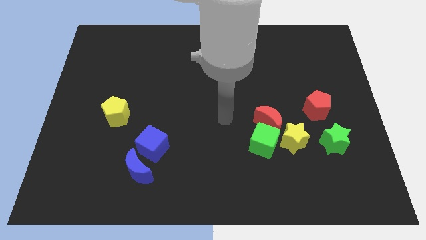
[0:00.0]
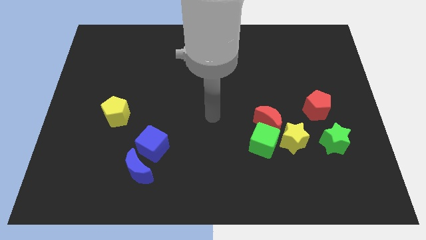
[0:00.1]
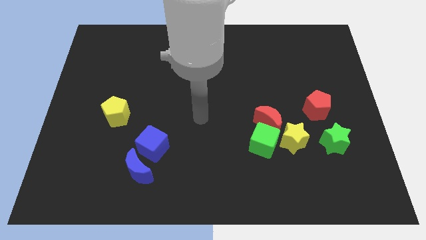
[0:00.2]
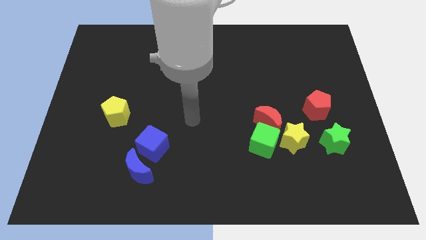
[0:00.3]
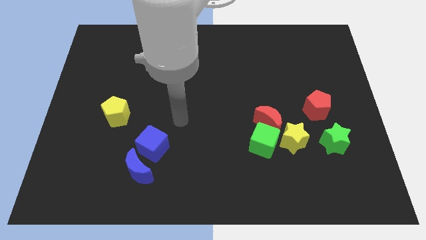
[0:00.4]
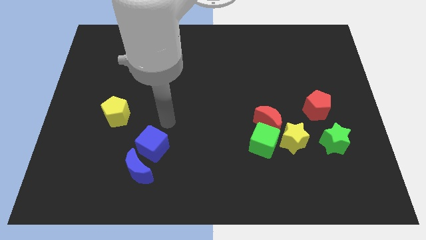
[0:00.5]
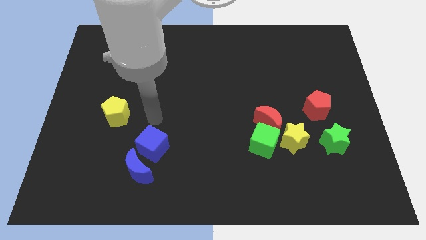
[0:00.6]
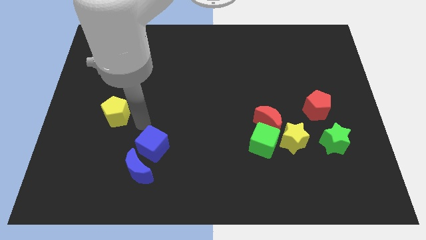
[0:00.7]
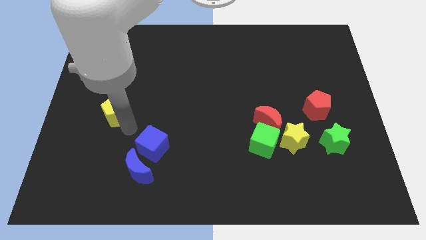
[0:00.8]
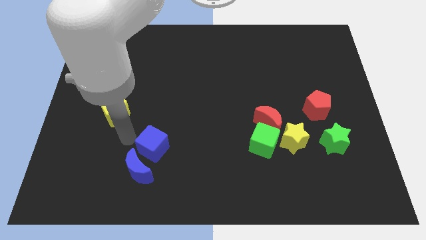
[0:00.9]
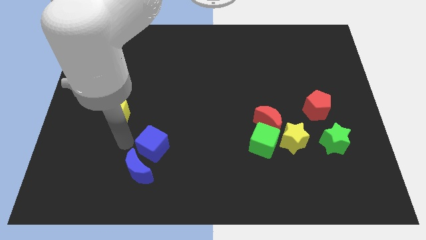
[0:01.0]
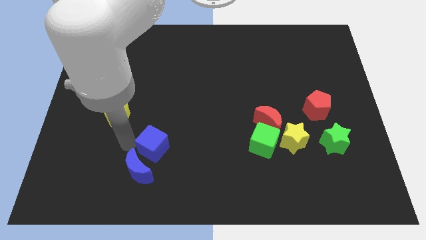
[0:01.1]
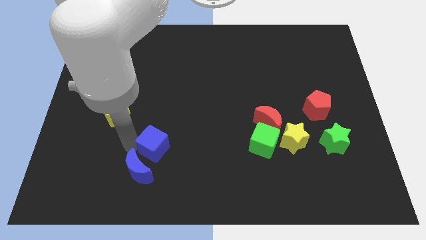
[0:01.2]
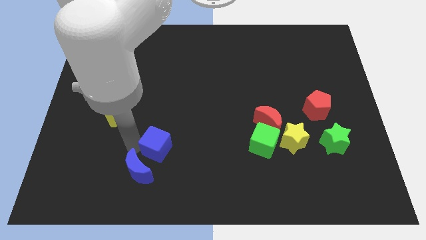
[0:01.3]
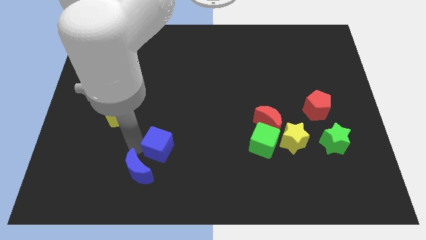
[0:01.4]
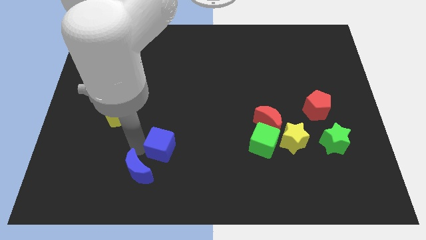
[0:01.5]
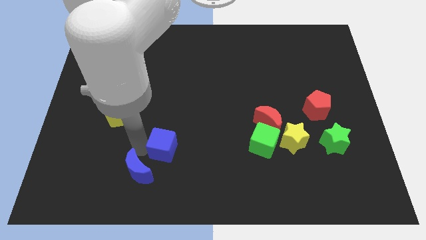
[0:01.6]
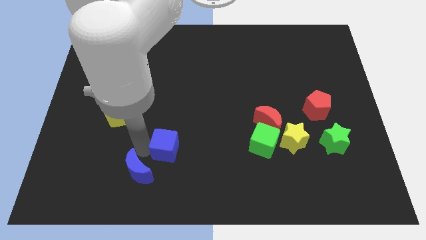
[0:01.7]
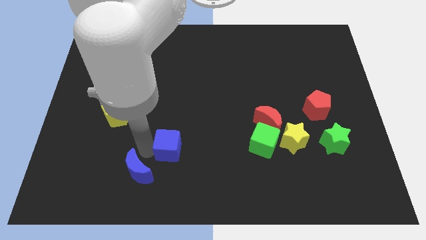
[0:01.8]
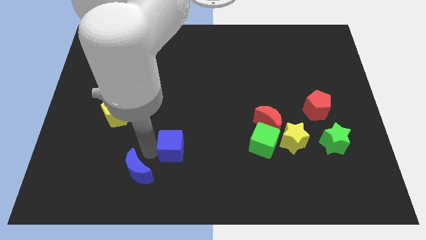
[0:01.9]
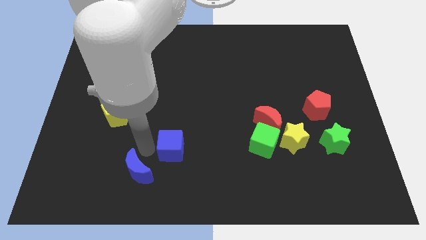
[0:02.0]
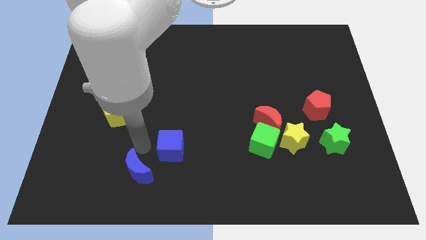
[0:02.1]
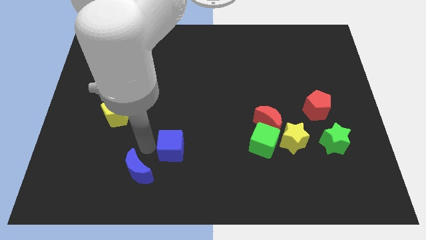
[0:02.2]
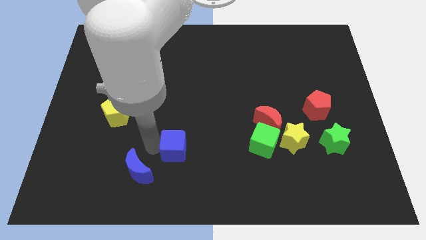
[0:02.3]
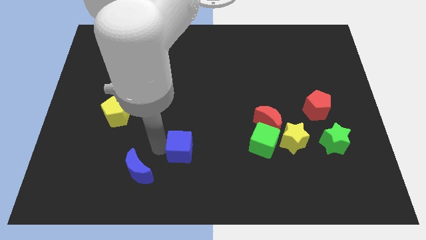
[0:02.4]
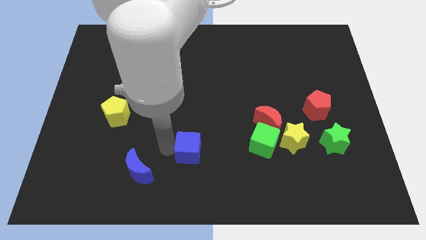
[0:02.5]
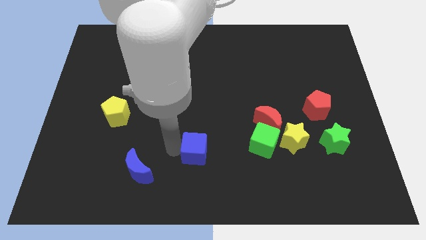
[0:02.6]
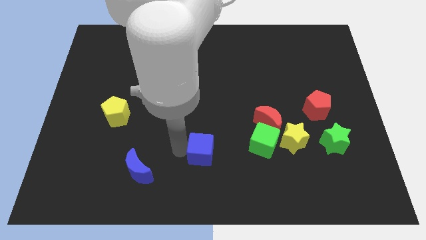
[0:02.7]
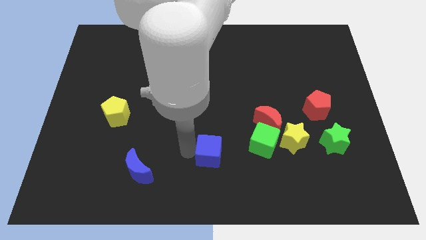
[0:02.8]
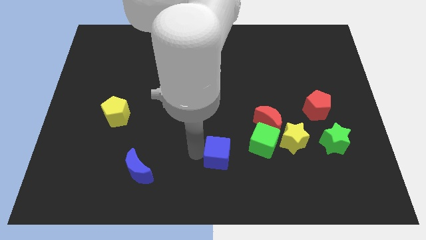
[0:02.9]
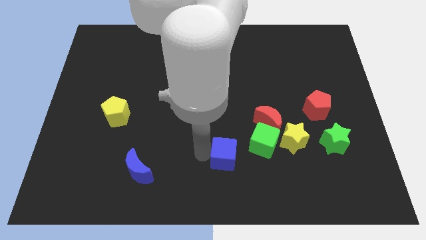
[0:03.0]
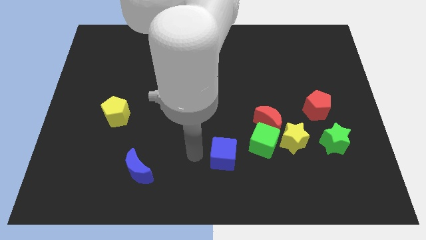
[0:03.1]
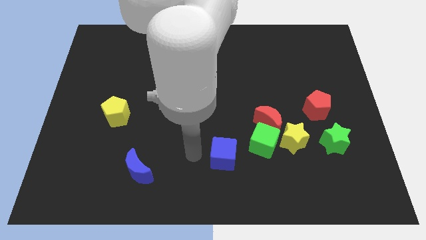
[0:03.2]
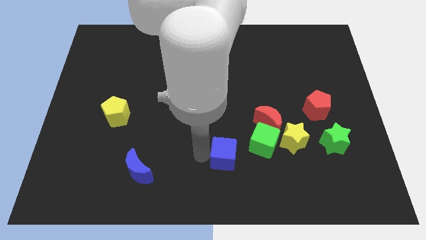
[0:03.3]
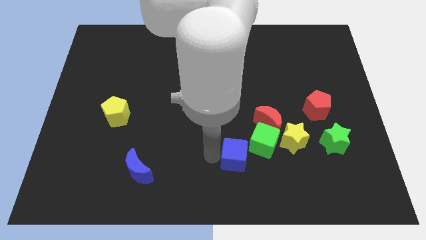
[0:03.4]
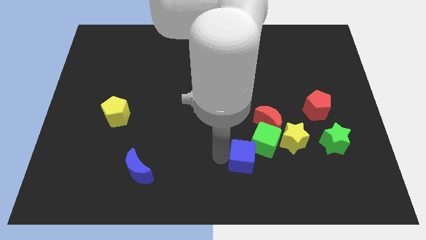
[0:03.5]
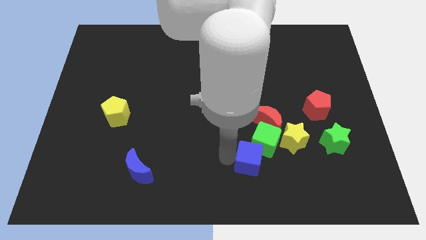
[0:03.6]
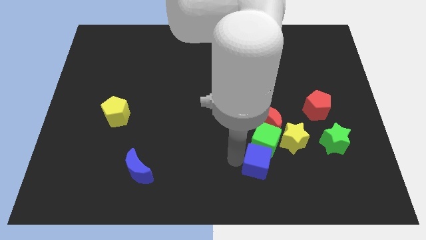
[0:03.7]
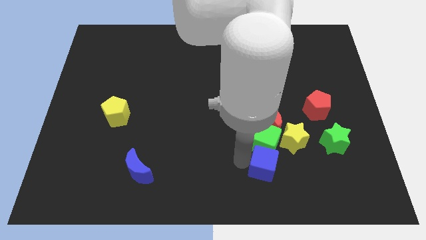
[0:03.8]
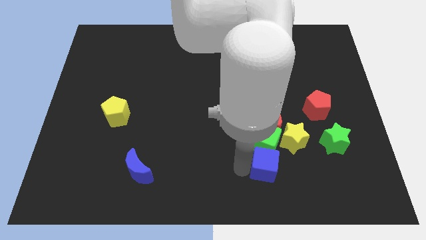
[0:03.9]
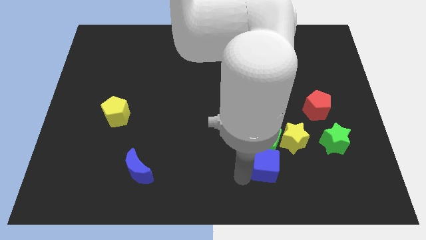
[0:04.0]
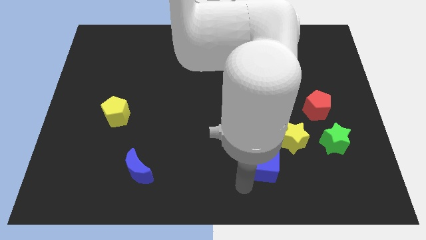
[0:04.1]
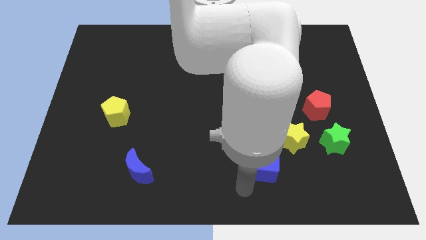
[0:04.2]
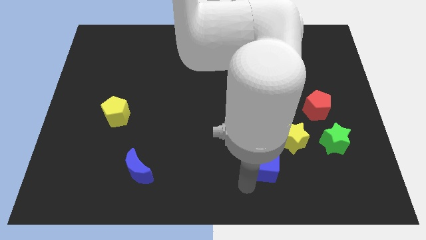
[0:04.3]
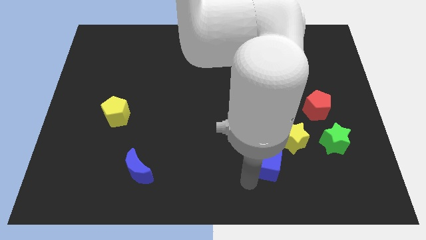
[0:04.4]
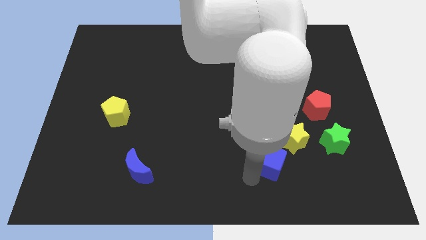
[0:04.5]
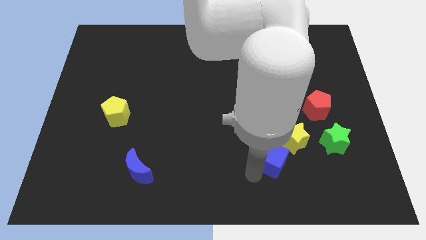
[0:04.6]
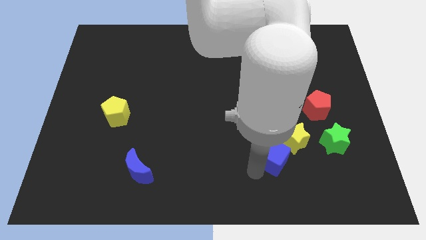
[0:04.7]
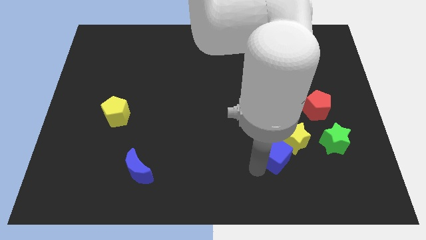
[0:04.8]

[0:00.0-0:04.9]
slide the blue cube next to the yellow star

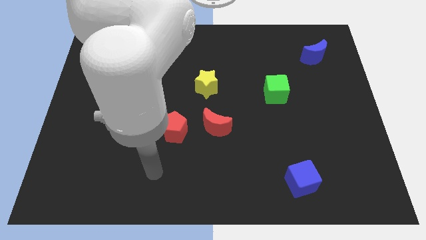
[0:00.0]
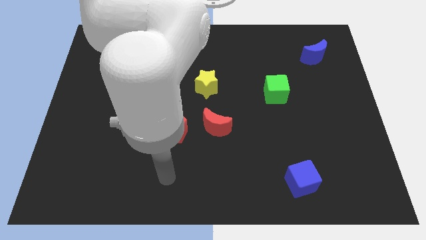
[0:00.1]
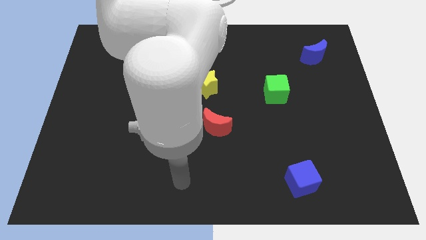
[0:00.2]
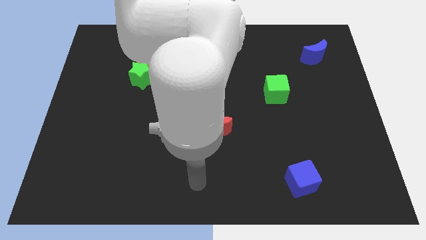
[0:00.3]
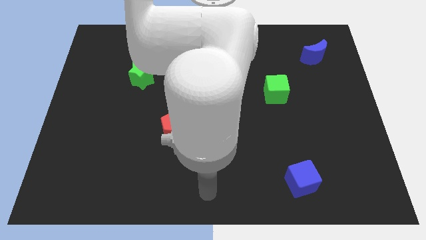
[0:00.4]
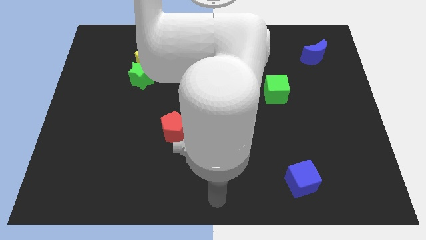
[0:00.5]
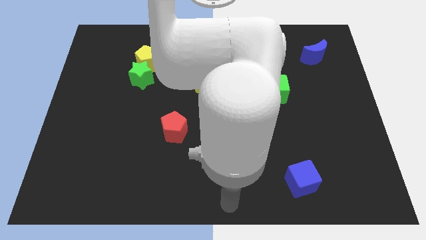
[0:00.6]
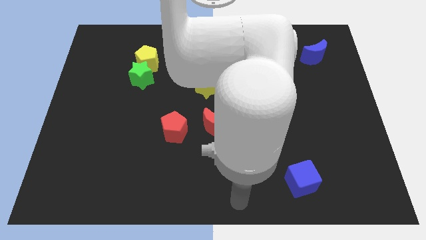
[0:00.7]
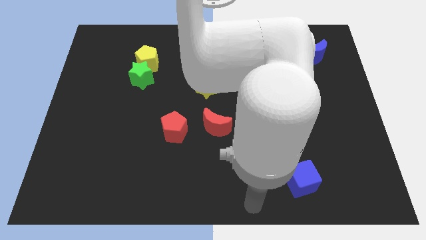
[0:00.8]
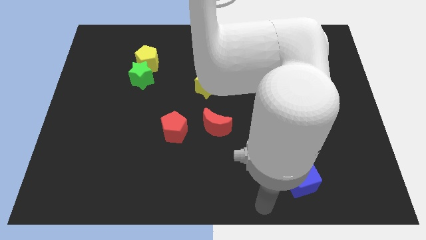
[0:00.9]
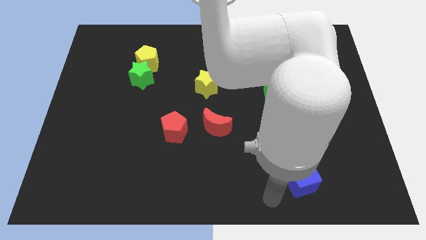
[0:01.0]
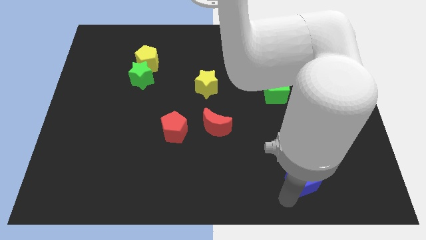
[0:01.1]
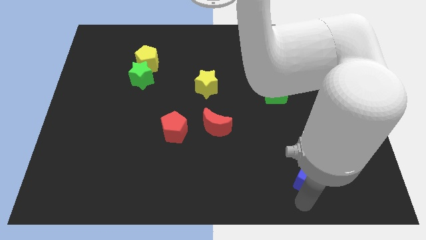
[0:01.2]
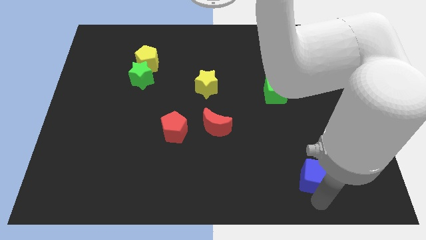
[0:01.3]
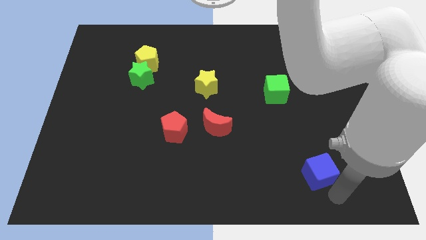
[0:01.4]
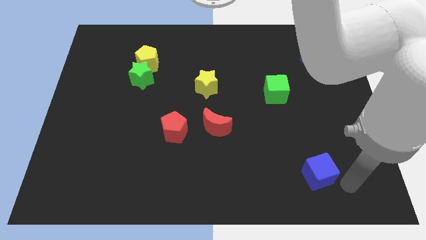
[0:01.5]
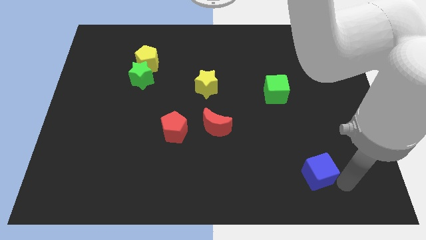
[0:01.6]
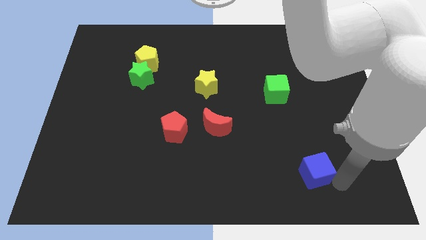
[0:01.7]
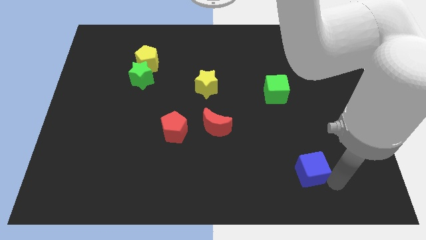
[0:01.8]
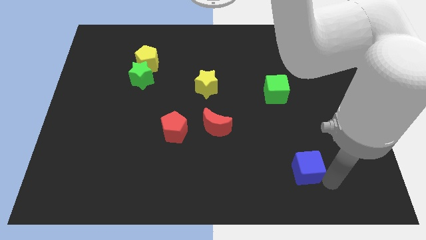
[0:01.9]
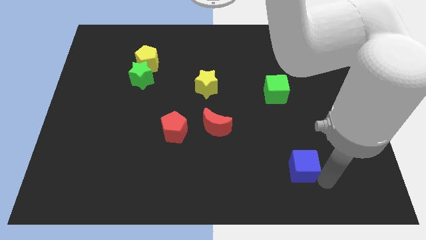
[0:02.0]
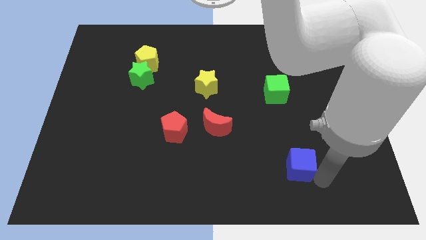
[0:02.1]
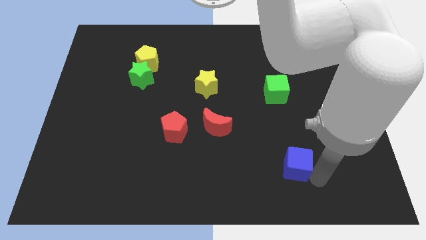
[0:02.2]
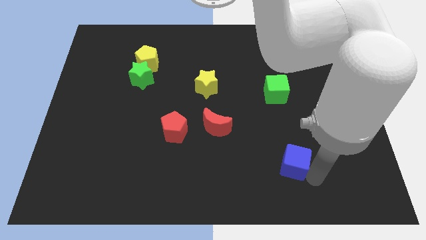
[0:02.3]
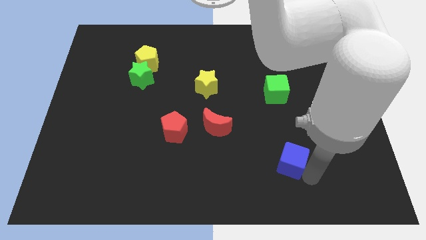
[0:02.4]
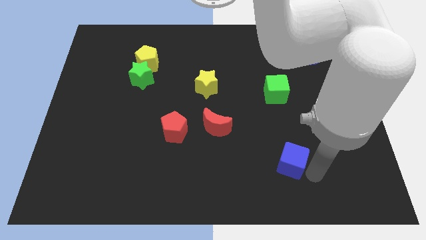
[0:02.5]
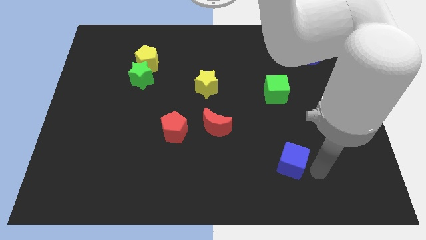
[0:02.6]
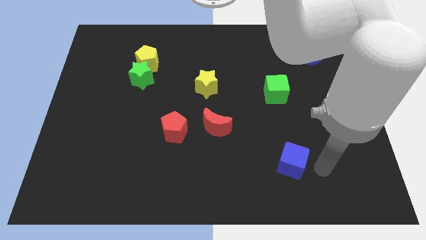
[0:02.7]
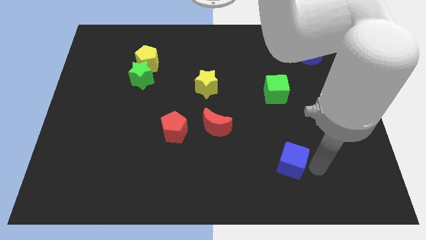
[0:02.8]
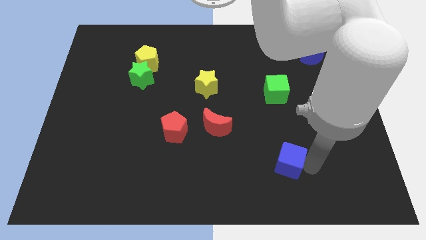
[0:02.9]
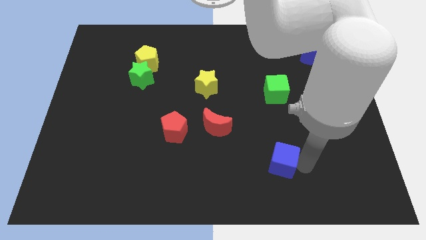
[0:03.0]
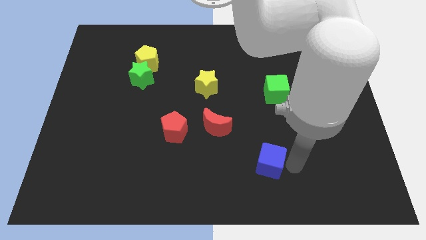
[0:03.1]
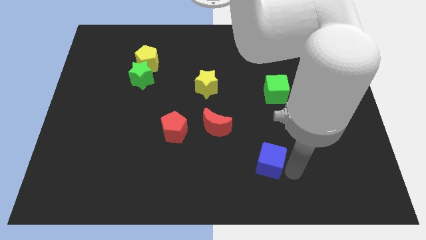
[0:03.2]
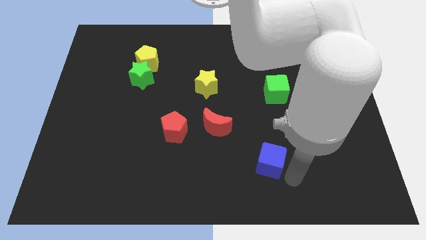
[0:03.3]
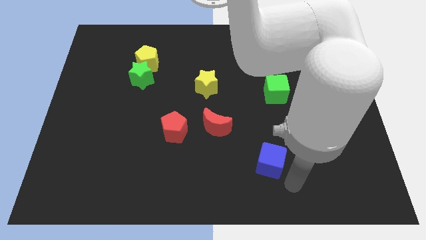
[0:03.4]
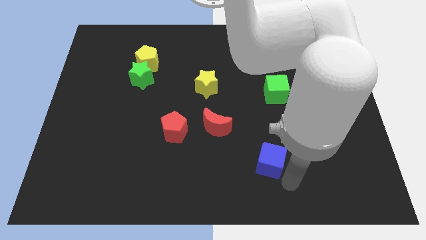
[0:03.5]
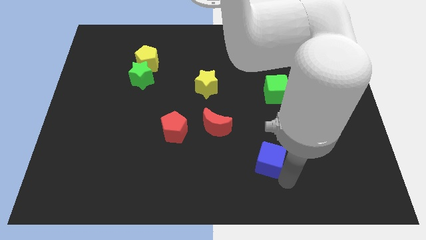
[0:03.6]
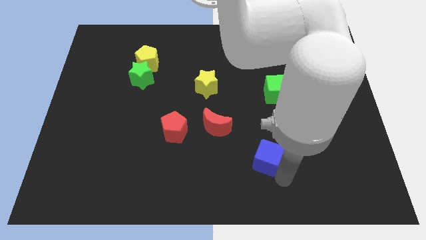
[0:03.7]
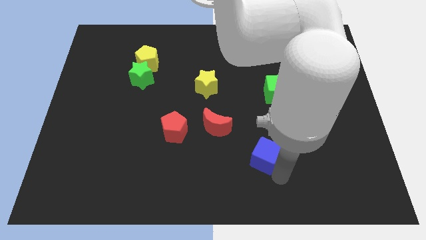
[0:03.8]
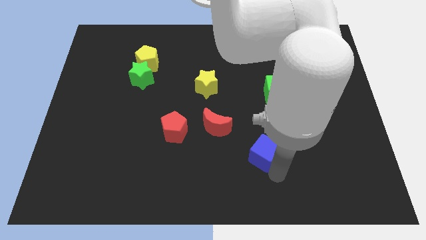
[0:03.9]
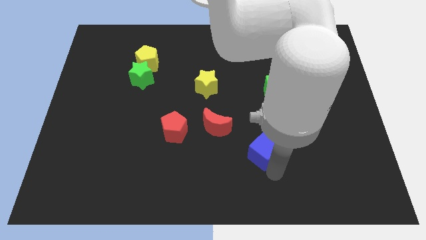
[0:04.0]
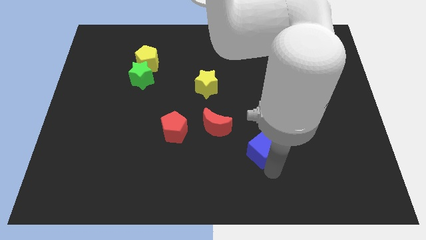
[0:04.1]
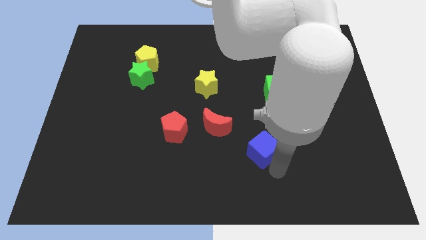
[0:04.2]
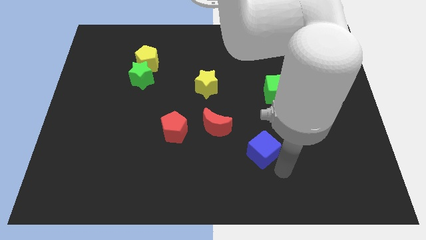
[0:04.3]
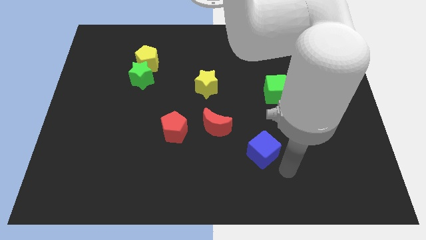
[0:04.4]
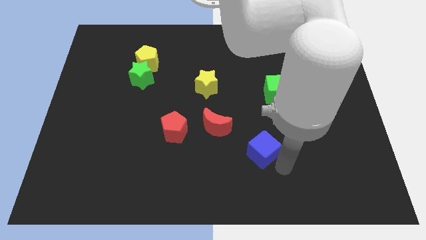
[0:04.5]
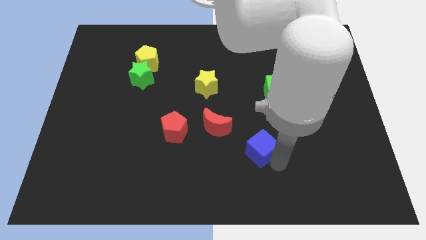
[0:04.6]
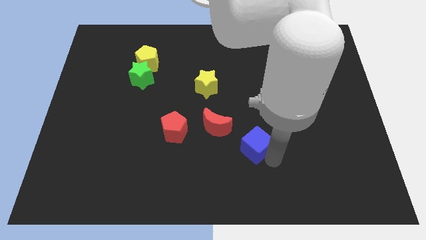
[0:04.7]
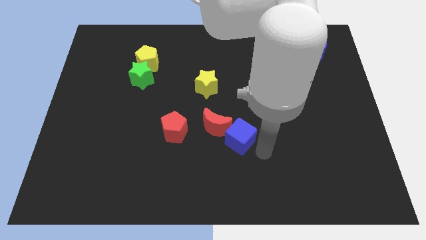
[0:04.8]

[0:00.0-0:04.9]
push the blue cube towards the red moon
